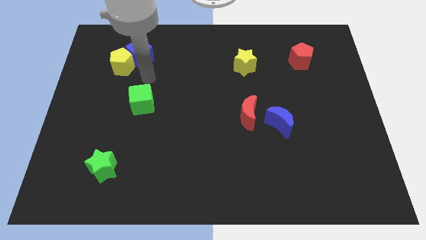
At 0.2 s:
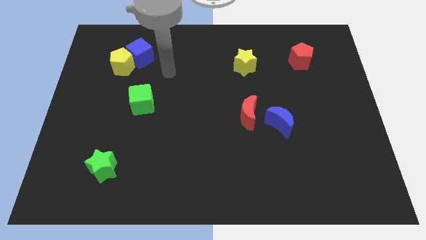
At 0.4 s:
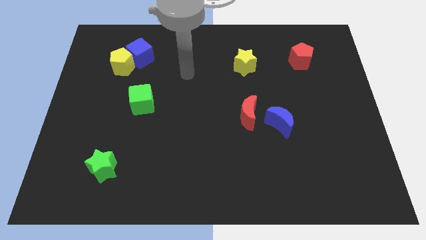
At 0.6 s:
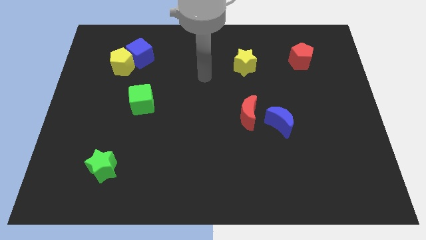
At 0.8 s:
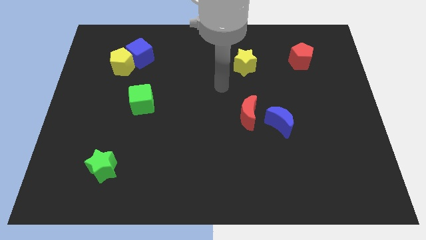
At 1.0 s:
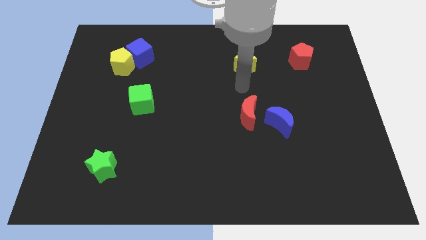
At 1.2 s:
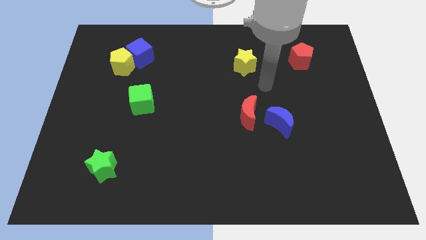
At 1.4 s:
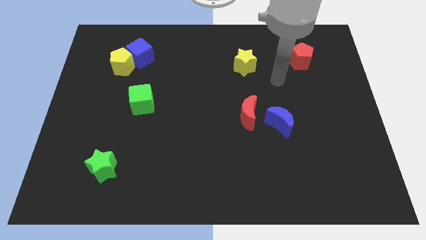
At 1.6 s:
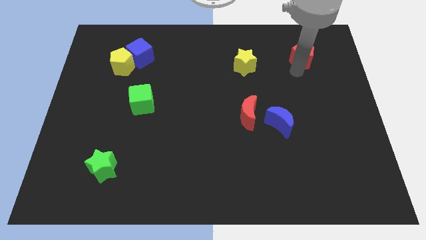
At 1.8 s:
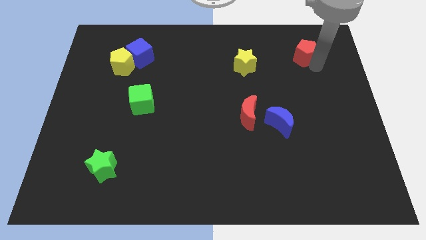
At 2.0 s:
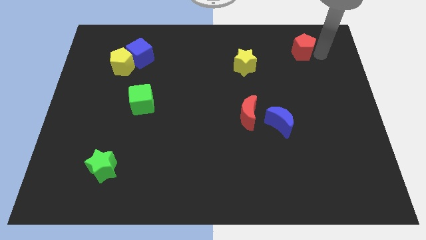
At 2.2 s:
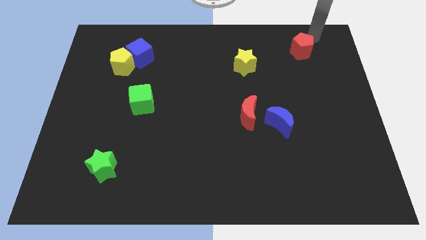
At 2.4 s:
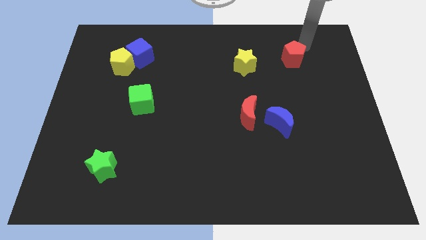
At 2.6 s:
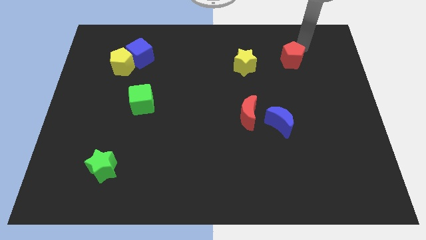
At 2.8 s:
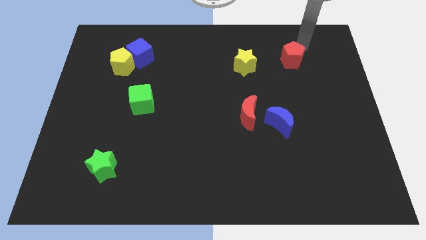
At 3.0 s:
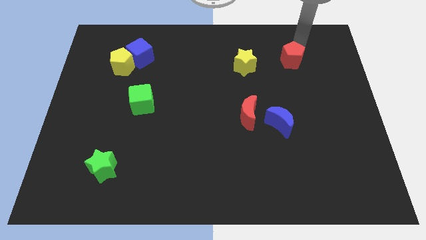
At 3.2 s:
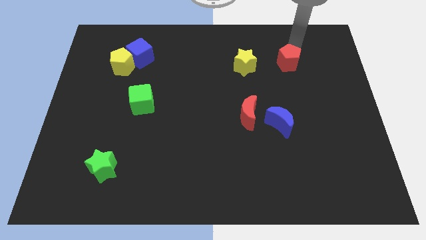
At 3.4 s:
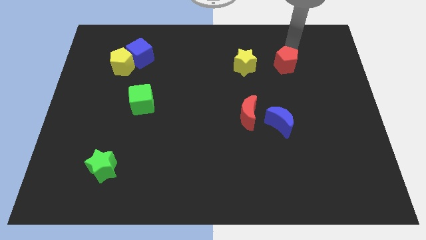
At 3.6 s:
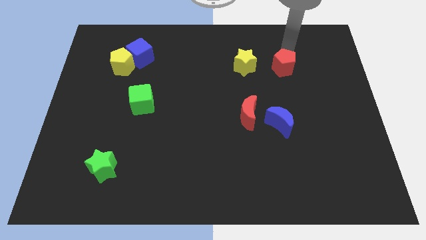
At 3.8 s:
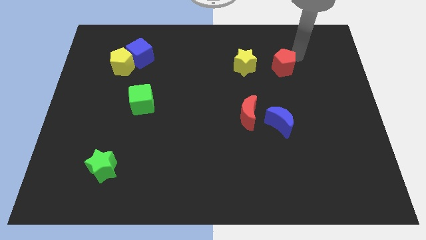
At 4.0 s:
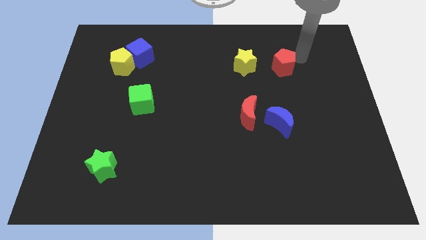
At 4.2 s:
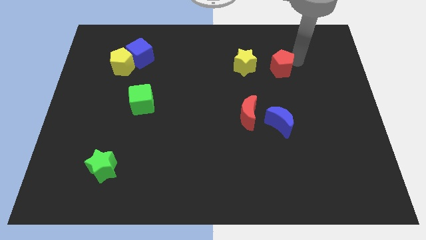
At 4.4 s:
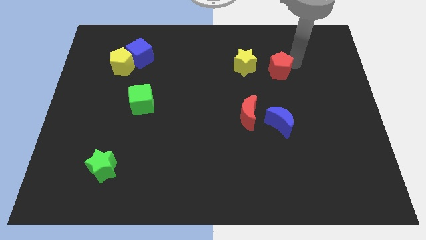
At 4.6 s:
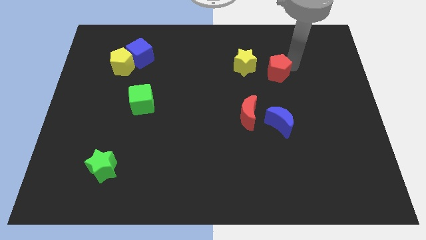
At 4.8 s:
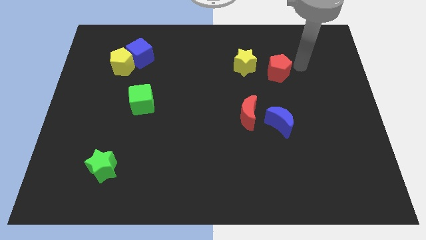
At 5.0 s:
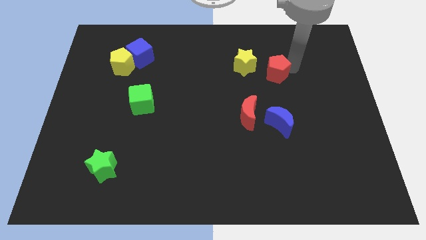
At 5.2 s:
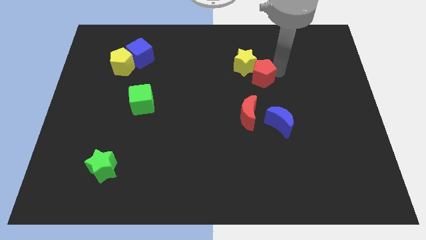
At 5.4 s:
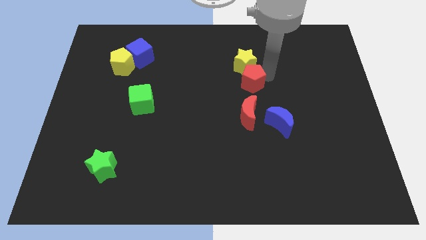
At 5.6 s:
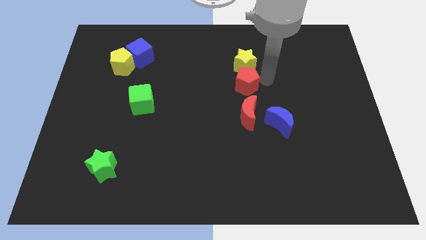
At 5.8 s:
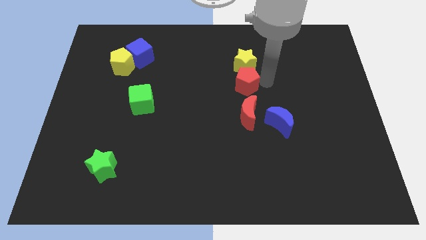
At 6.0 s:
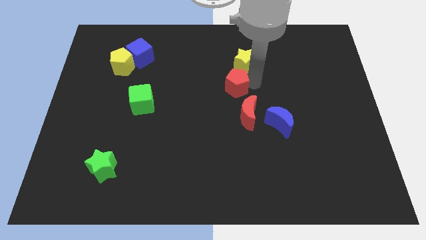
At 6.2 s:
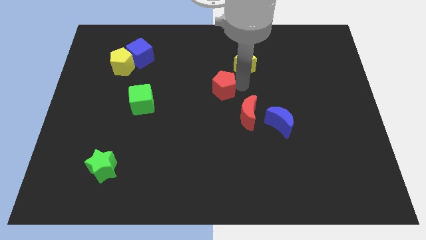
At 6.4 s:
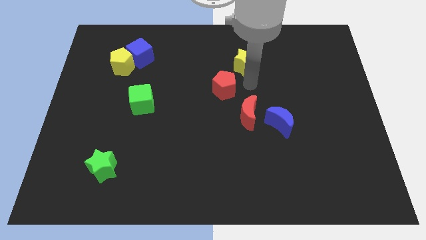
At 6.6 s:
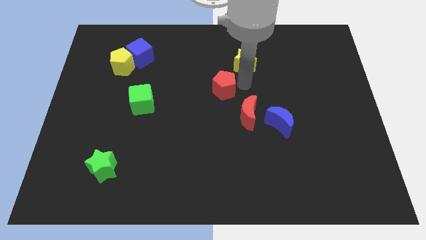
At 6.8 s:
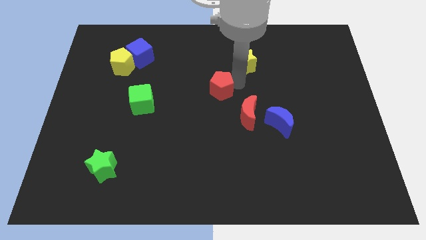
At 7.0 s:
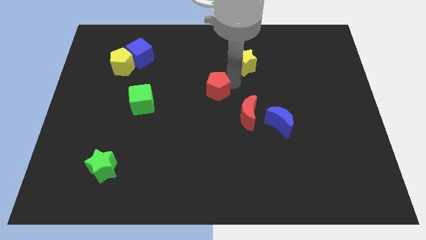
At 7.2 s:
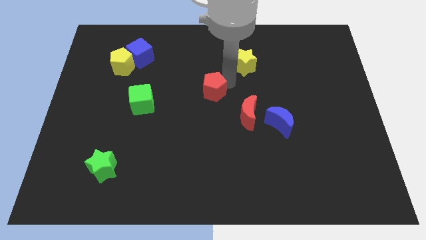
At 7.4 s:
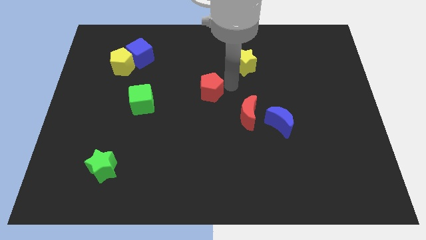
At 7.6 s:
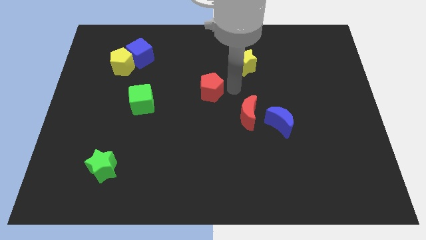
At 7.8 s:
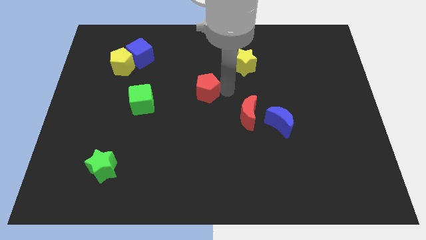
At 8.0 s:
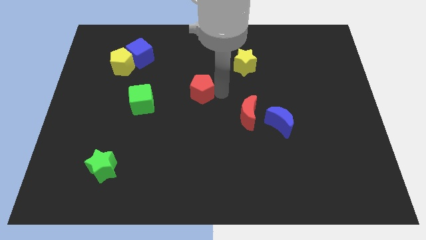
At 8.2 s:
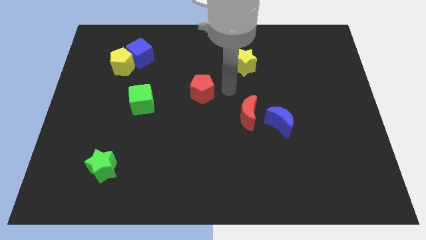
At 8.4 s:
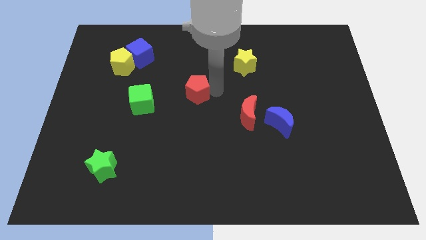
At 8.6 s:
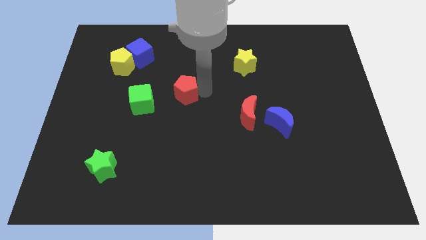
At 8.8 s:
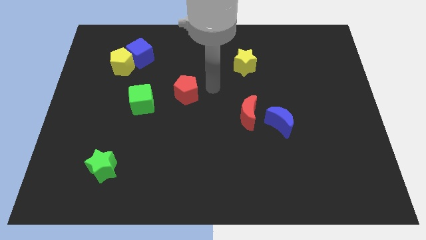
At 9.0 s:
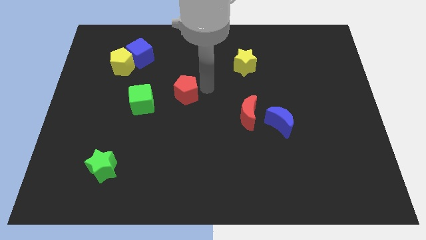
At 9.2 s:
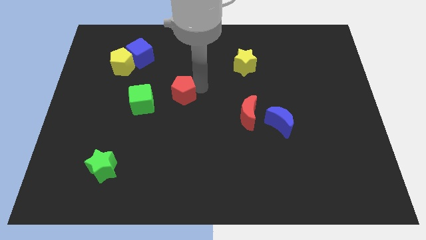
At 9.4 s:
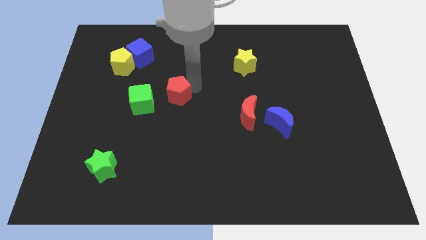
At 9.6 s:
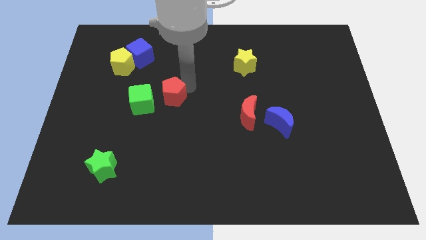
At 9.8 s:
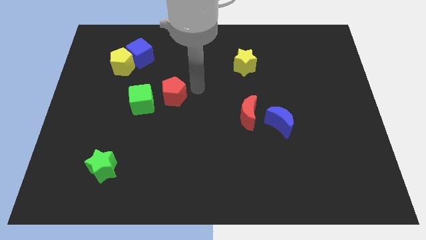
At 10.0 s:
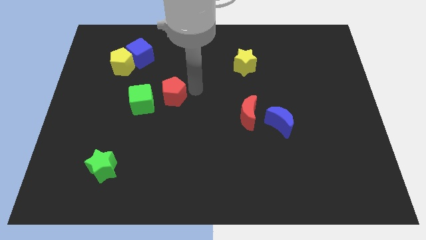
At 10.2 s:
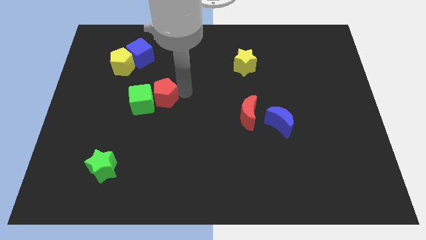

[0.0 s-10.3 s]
push the red pentagon towards the green cube

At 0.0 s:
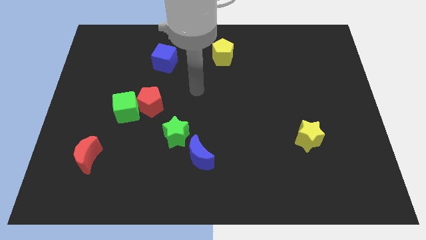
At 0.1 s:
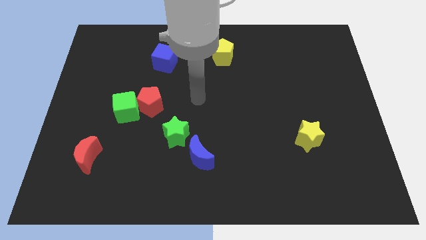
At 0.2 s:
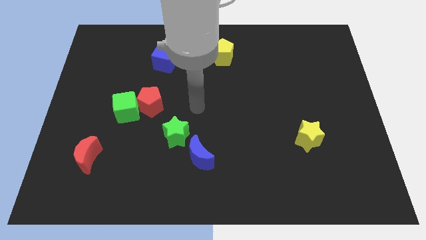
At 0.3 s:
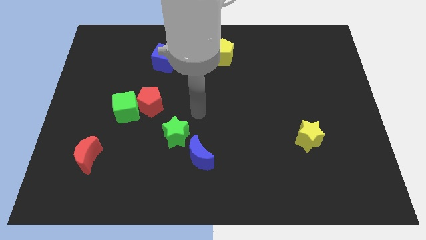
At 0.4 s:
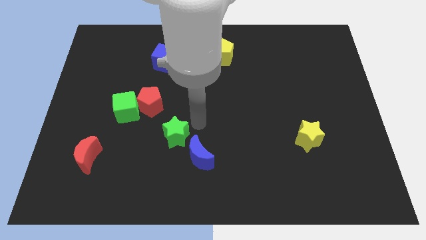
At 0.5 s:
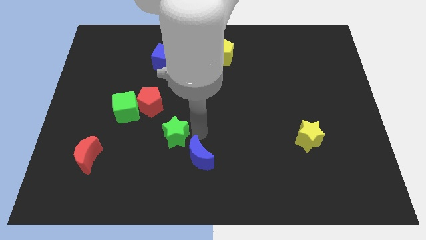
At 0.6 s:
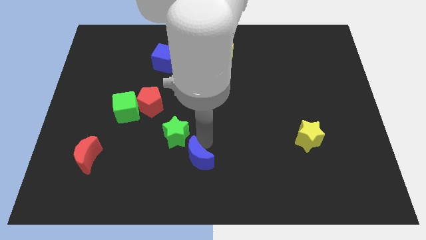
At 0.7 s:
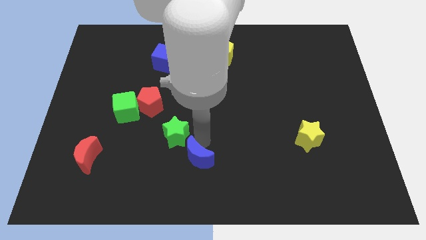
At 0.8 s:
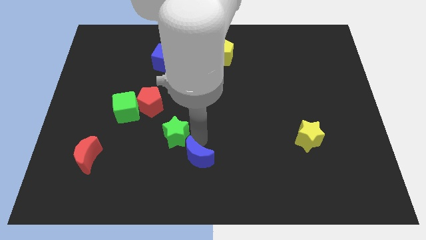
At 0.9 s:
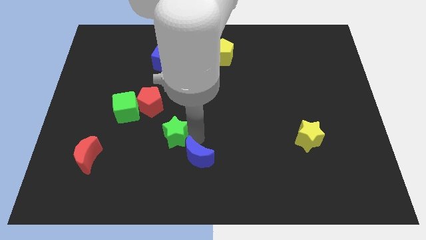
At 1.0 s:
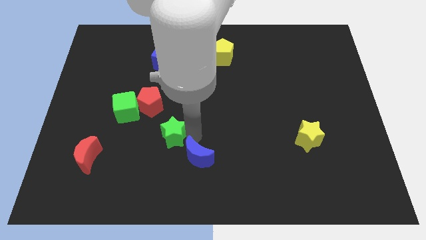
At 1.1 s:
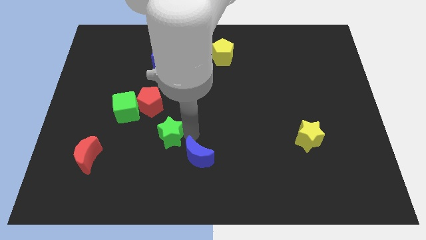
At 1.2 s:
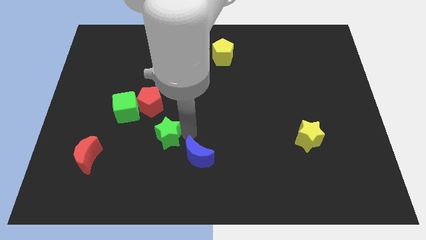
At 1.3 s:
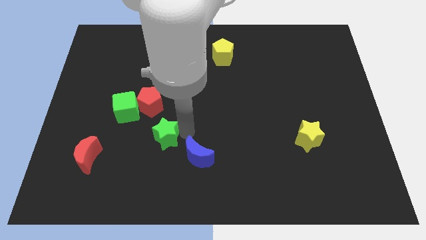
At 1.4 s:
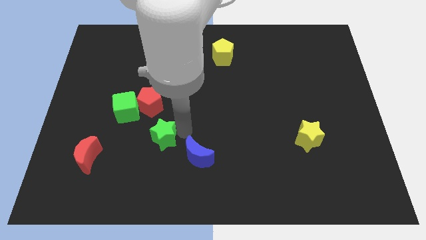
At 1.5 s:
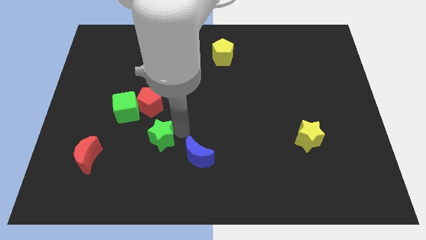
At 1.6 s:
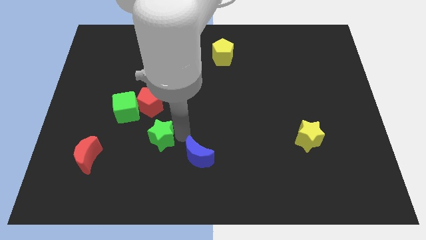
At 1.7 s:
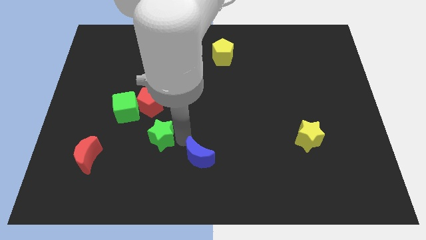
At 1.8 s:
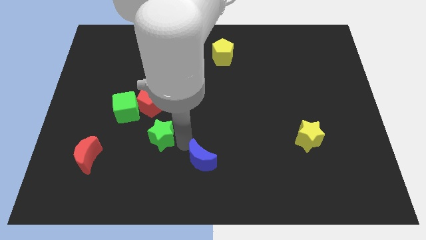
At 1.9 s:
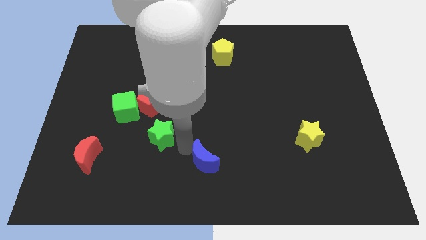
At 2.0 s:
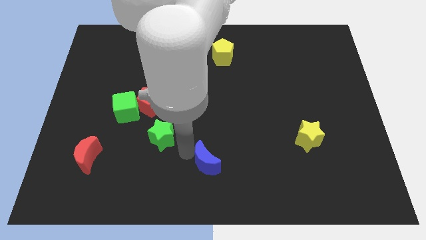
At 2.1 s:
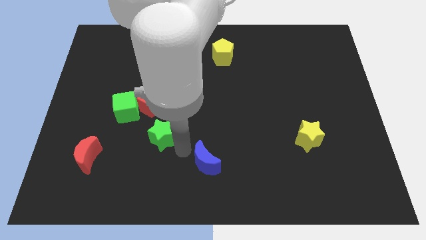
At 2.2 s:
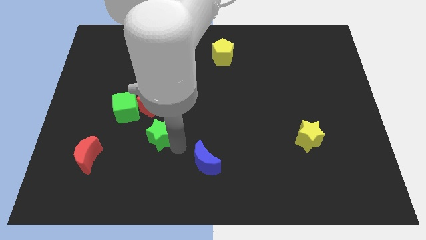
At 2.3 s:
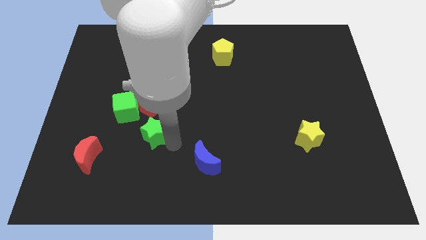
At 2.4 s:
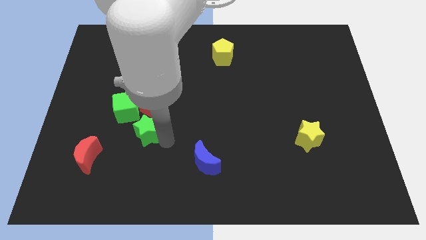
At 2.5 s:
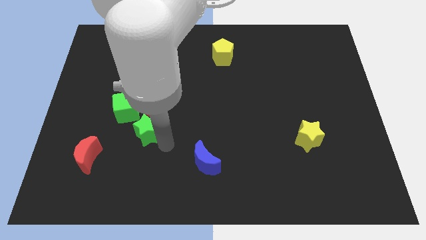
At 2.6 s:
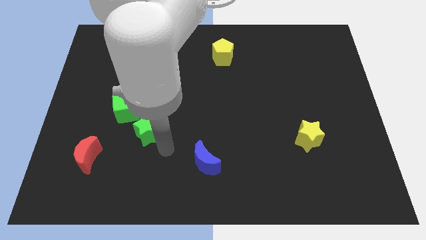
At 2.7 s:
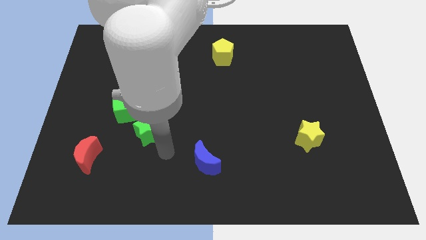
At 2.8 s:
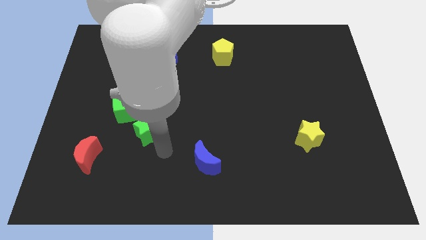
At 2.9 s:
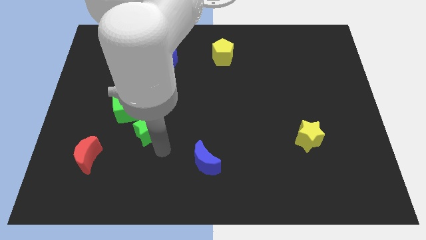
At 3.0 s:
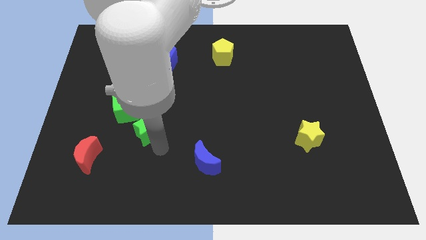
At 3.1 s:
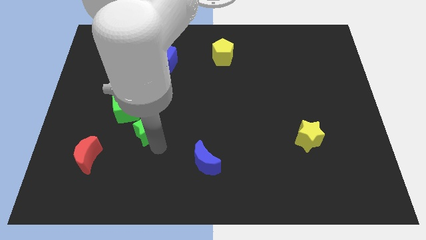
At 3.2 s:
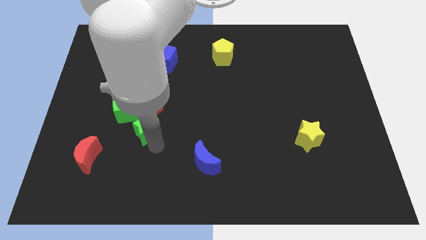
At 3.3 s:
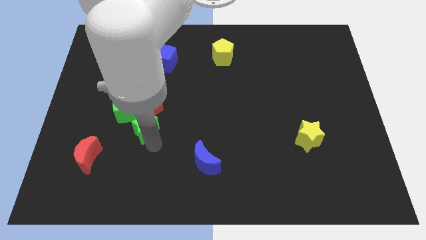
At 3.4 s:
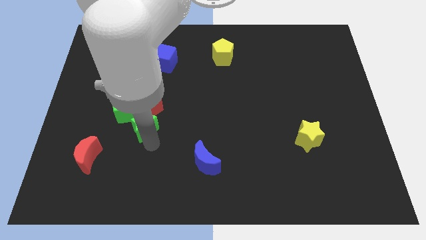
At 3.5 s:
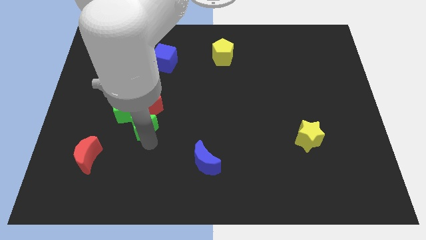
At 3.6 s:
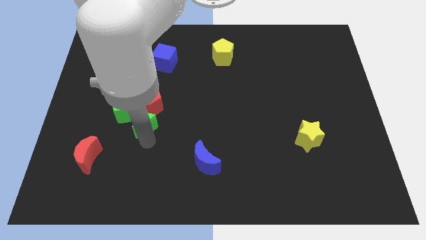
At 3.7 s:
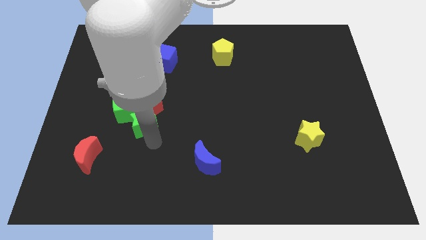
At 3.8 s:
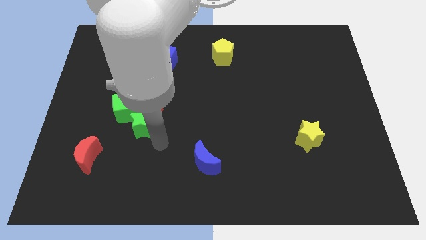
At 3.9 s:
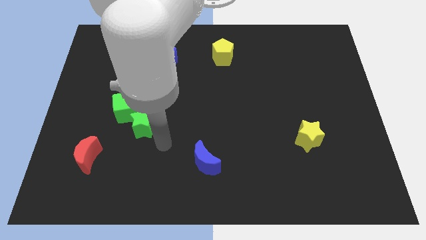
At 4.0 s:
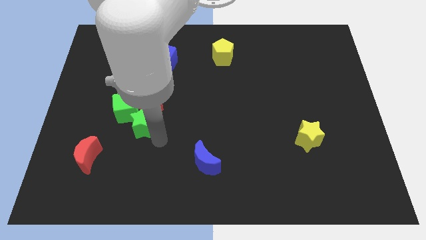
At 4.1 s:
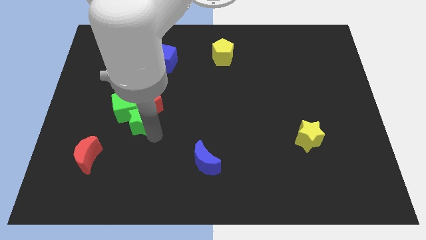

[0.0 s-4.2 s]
slide the green star to the green cube
